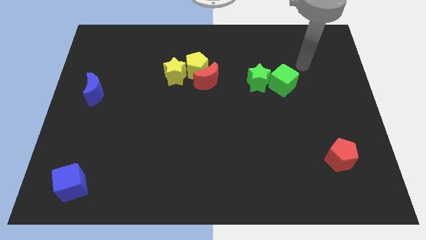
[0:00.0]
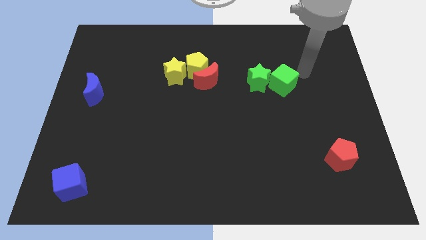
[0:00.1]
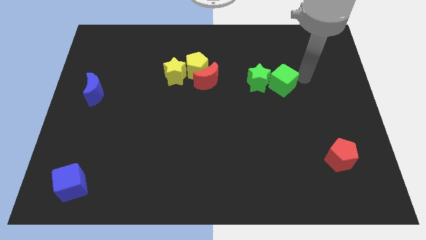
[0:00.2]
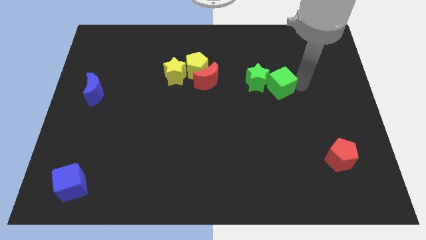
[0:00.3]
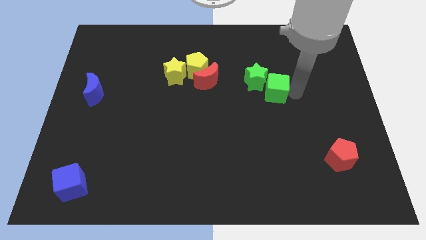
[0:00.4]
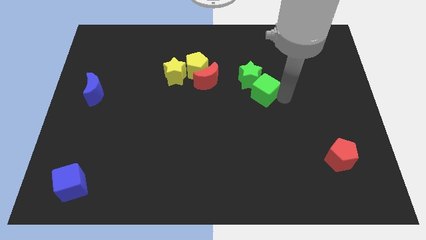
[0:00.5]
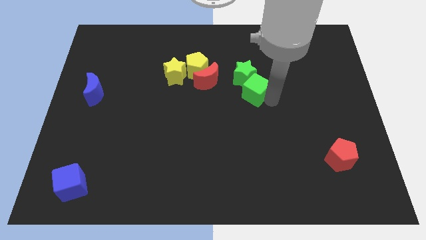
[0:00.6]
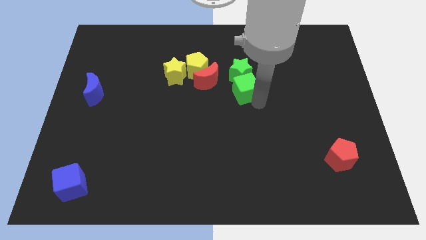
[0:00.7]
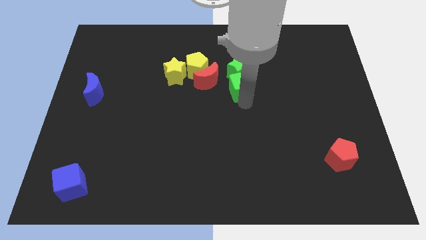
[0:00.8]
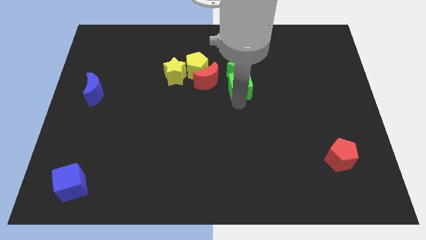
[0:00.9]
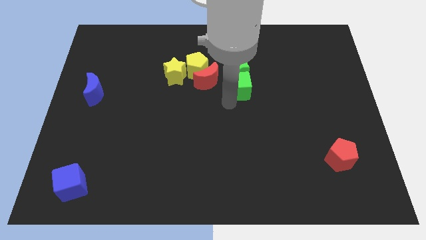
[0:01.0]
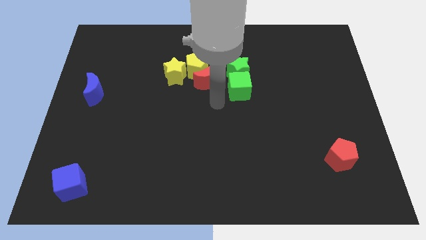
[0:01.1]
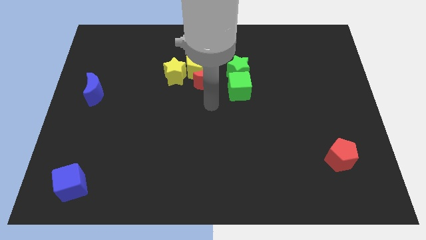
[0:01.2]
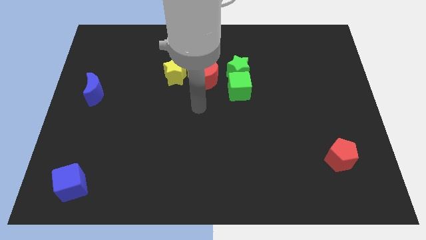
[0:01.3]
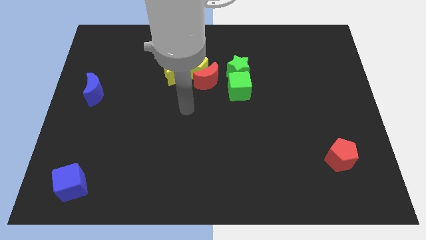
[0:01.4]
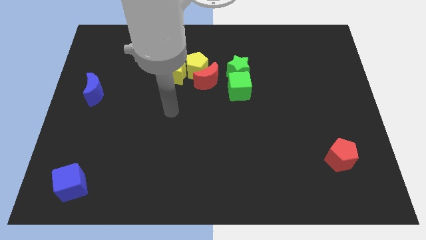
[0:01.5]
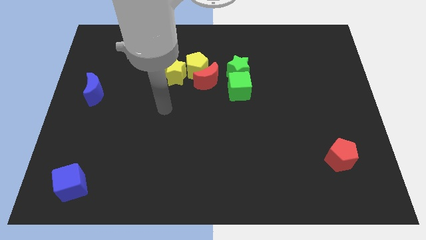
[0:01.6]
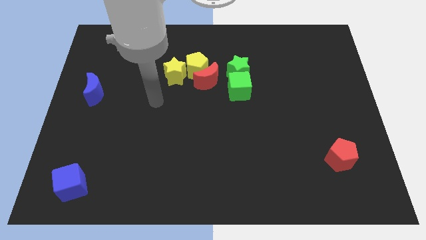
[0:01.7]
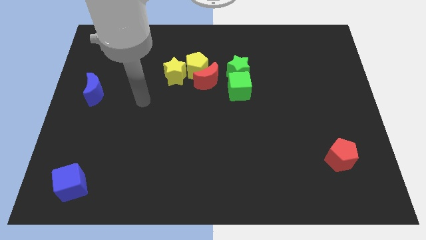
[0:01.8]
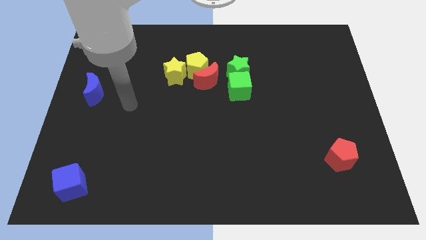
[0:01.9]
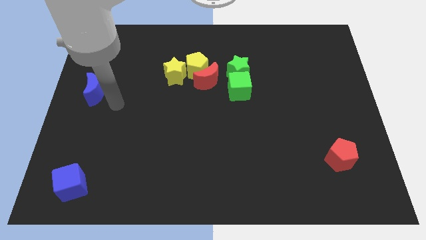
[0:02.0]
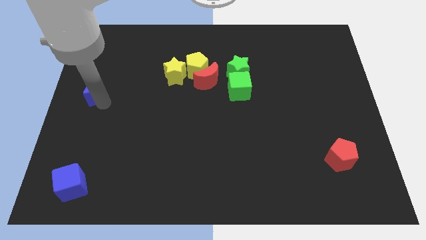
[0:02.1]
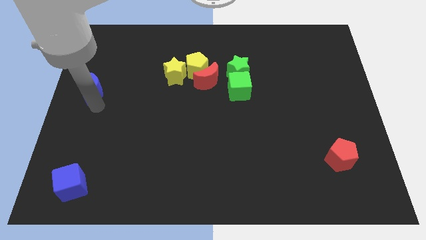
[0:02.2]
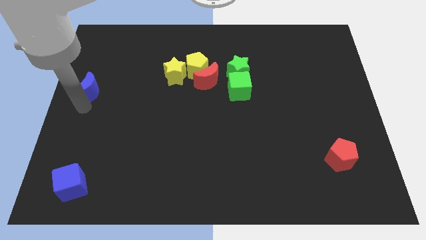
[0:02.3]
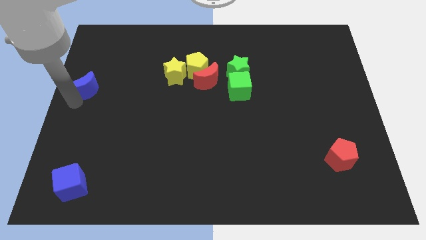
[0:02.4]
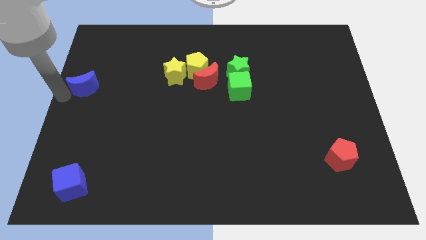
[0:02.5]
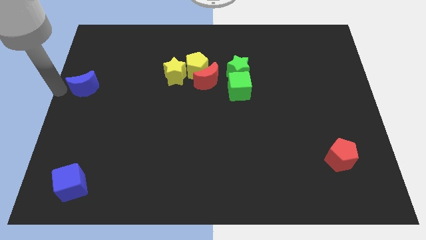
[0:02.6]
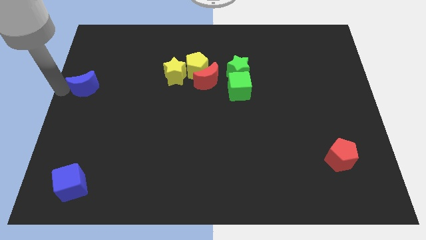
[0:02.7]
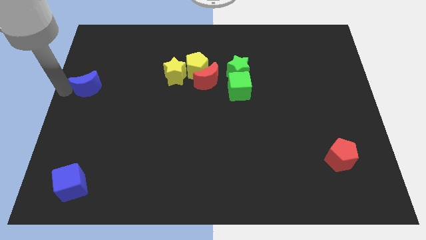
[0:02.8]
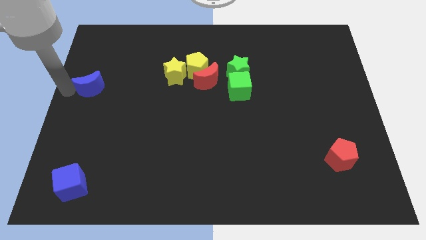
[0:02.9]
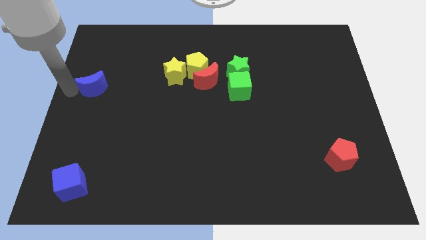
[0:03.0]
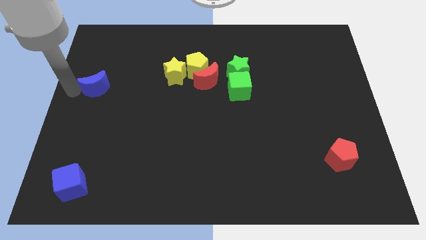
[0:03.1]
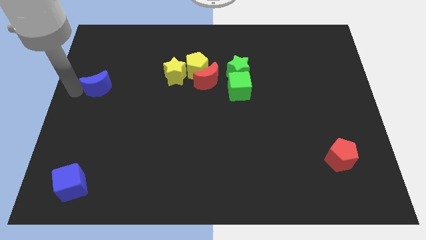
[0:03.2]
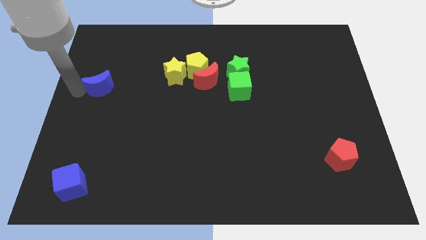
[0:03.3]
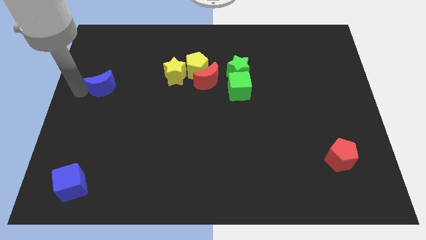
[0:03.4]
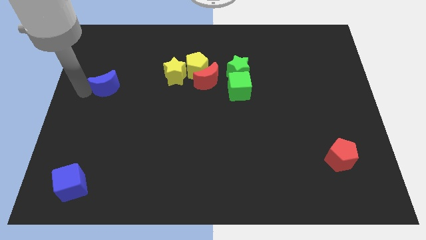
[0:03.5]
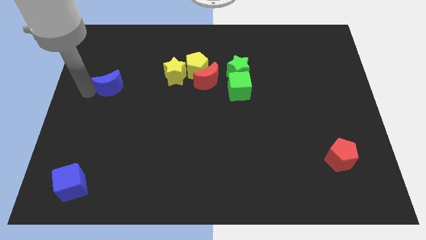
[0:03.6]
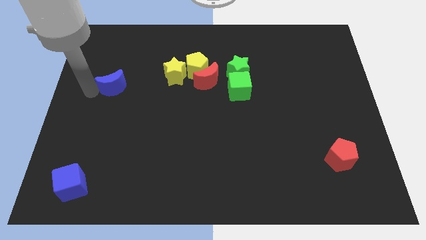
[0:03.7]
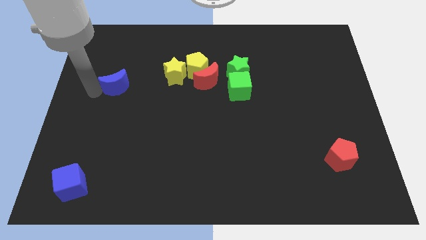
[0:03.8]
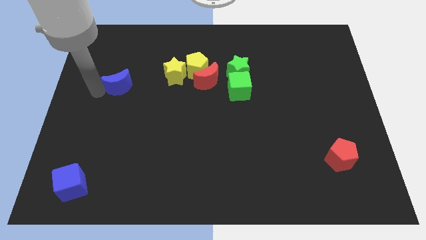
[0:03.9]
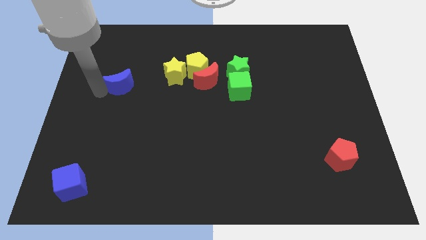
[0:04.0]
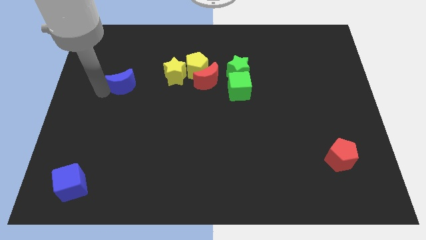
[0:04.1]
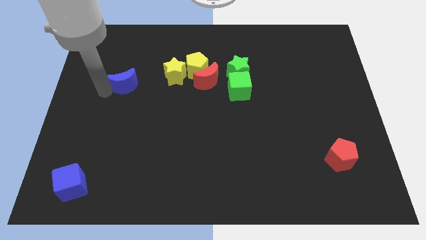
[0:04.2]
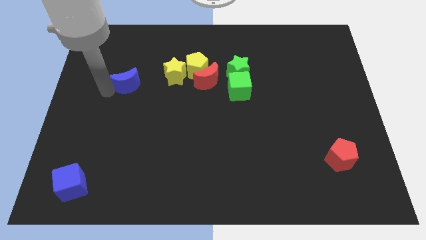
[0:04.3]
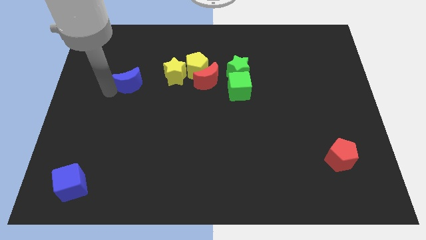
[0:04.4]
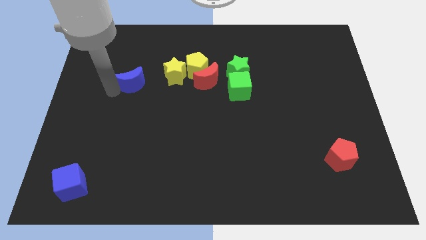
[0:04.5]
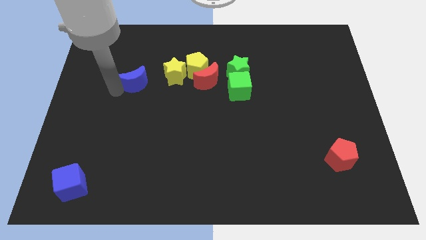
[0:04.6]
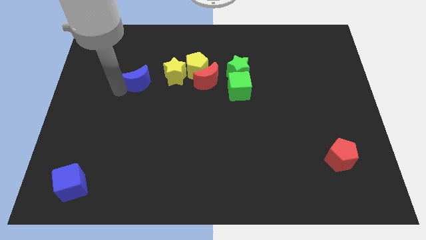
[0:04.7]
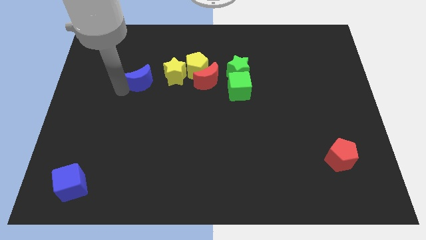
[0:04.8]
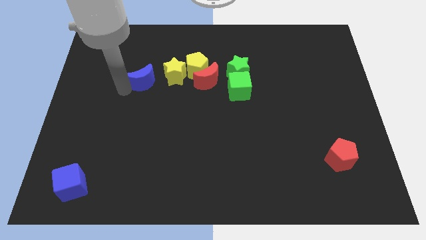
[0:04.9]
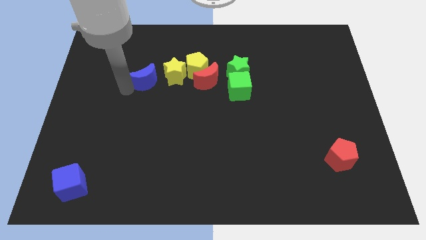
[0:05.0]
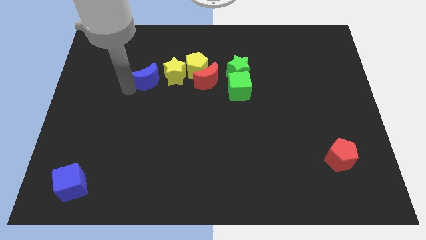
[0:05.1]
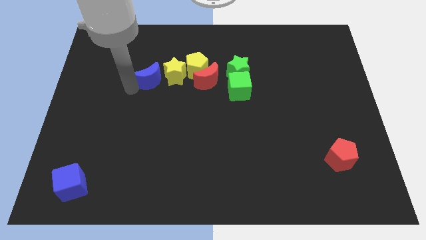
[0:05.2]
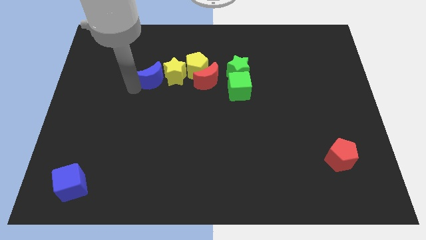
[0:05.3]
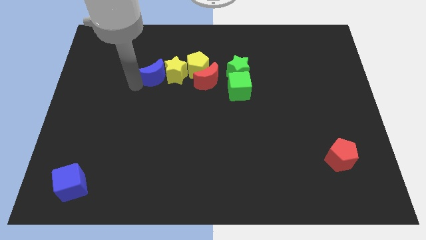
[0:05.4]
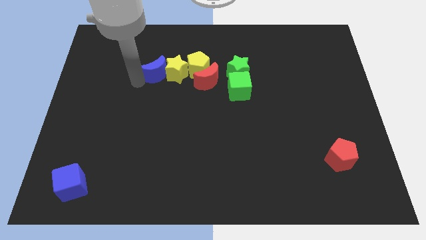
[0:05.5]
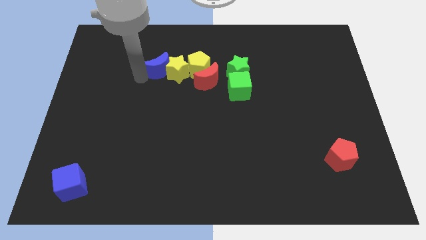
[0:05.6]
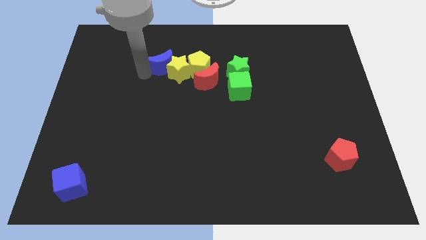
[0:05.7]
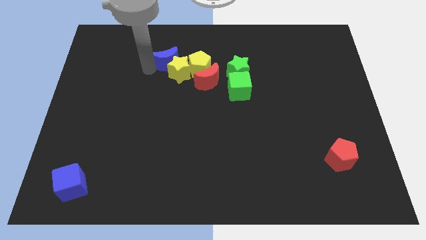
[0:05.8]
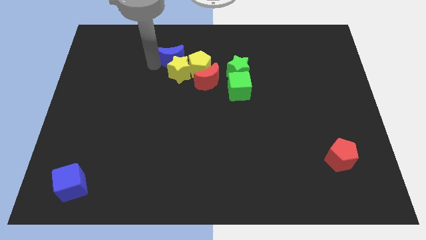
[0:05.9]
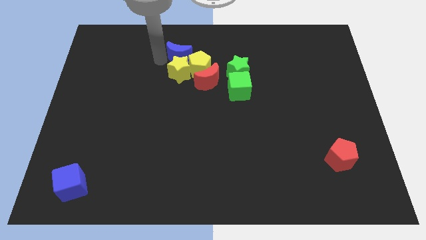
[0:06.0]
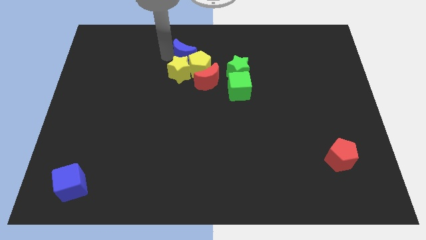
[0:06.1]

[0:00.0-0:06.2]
push the blue moon to the yellow pentagon

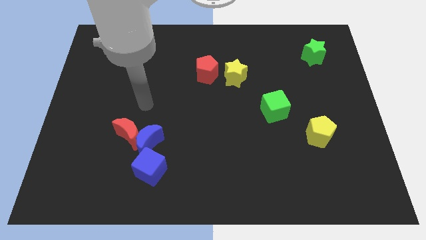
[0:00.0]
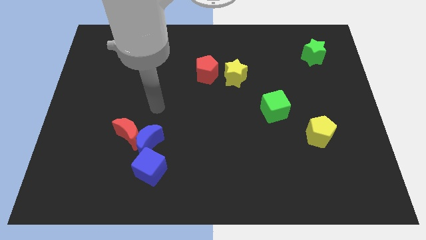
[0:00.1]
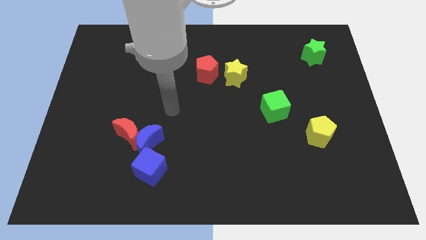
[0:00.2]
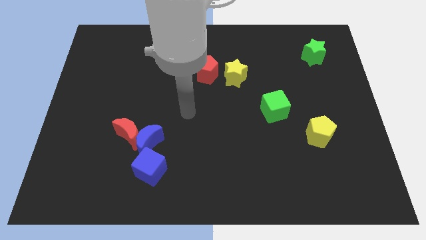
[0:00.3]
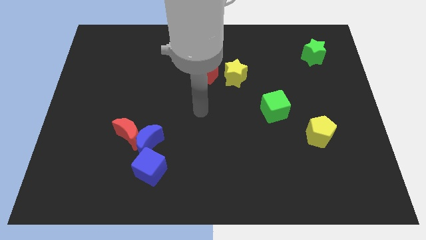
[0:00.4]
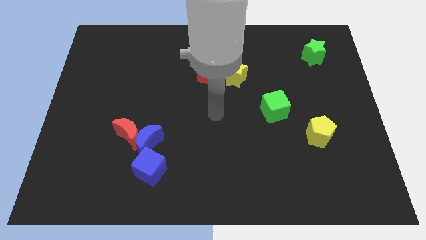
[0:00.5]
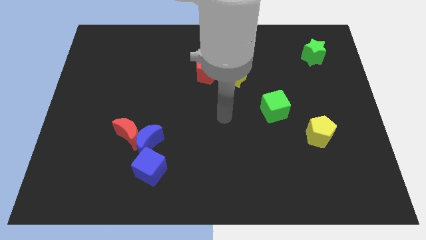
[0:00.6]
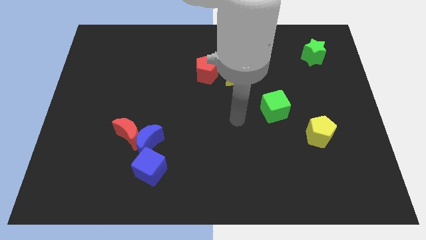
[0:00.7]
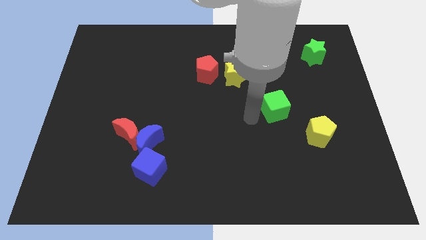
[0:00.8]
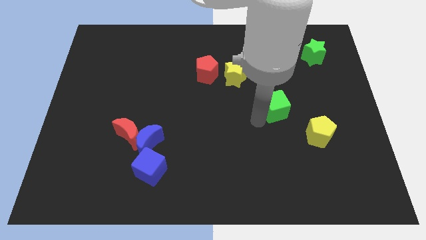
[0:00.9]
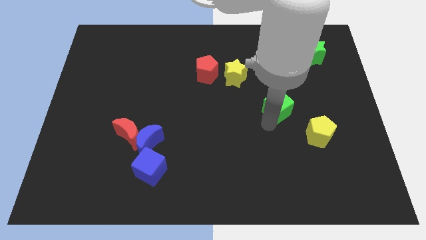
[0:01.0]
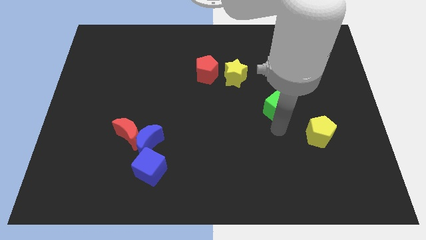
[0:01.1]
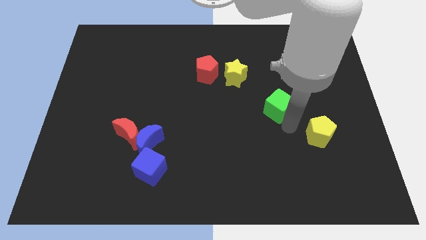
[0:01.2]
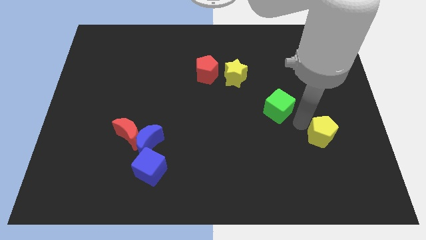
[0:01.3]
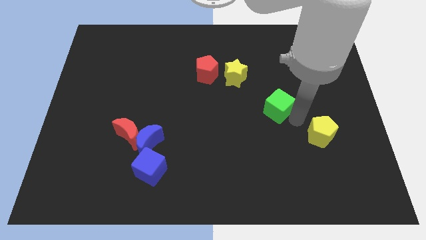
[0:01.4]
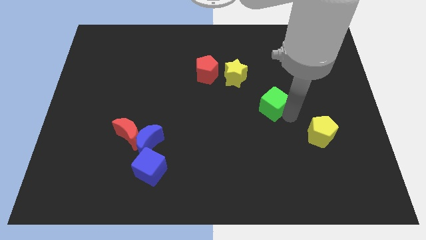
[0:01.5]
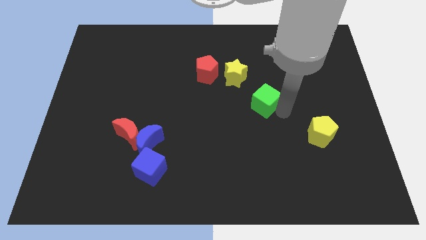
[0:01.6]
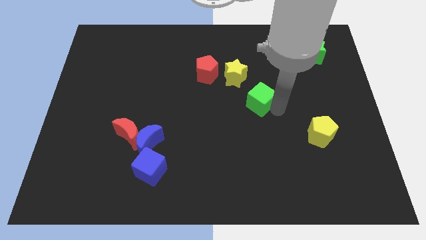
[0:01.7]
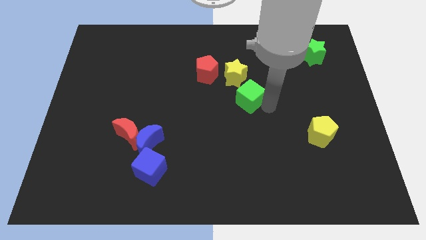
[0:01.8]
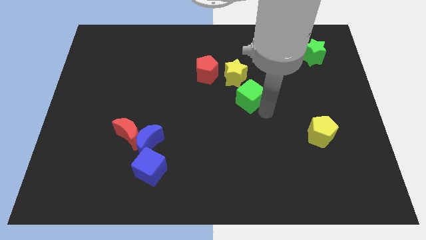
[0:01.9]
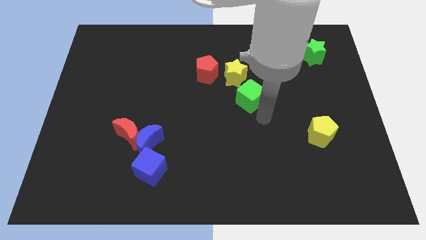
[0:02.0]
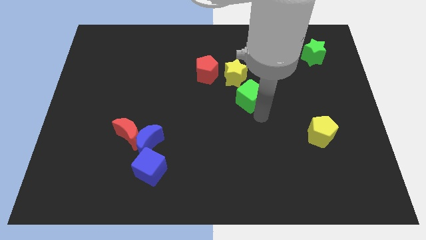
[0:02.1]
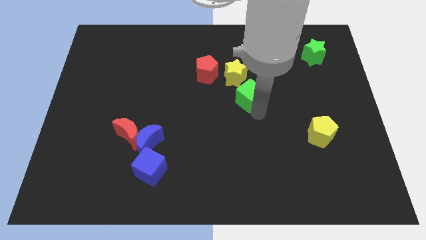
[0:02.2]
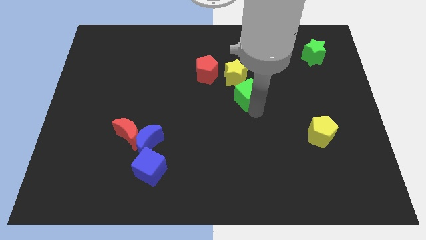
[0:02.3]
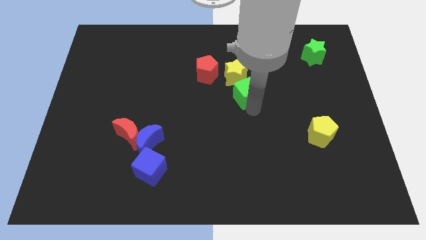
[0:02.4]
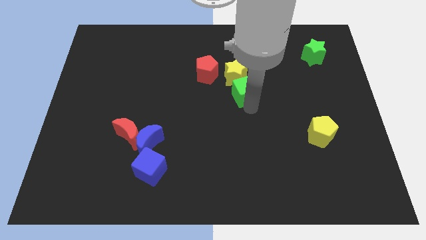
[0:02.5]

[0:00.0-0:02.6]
put the green cube close to the yellow star
